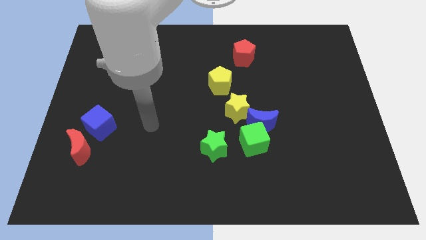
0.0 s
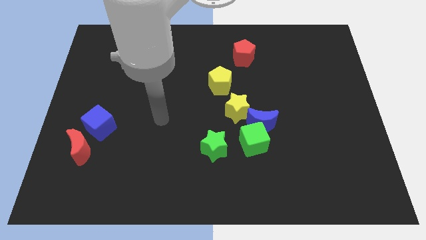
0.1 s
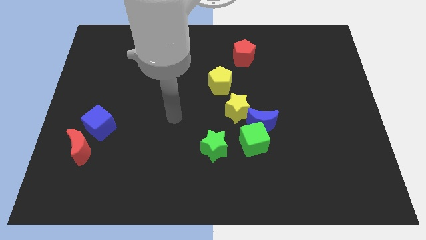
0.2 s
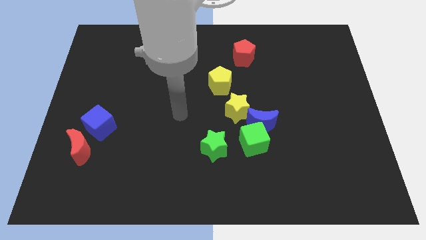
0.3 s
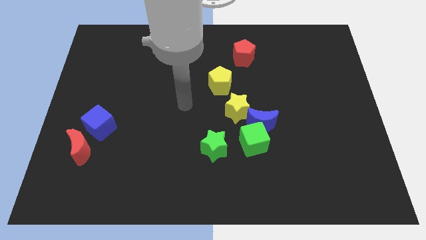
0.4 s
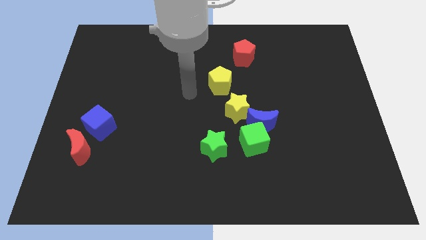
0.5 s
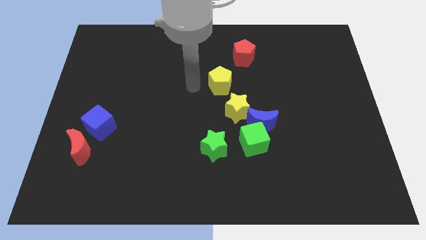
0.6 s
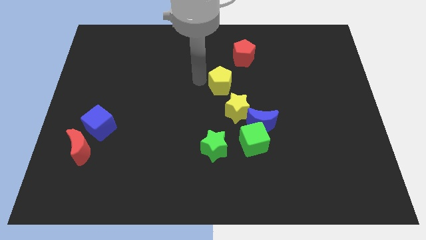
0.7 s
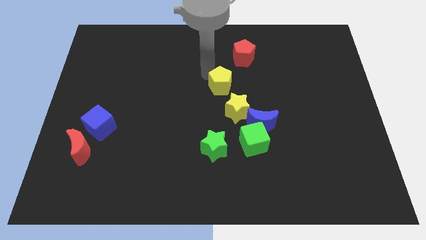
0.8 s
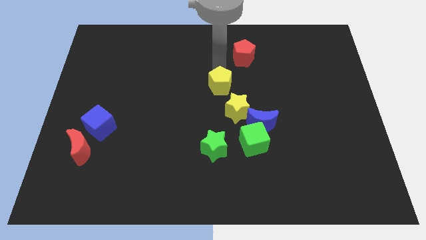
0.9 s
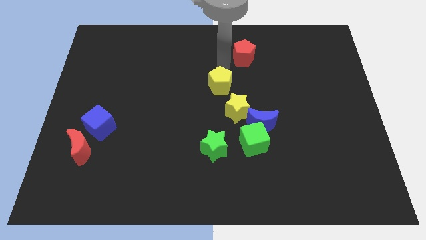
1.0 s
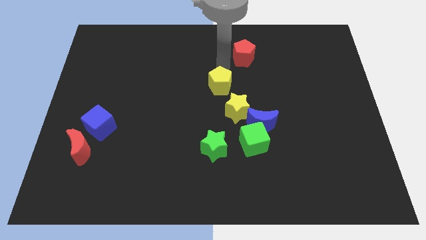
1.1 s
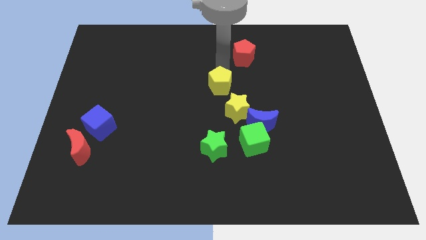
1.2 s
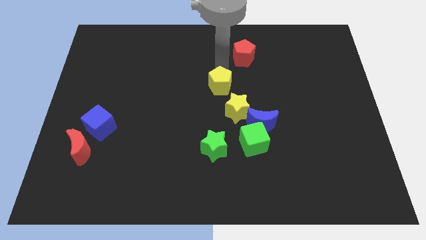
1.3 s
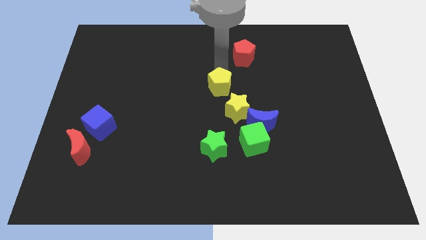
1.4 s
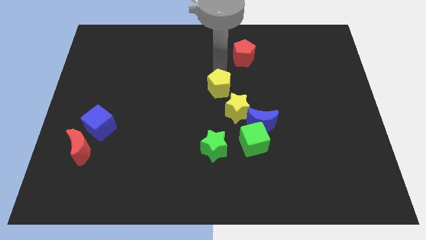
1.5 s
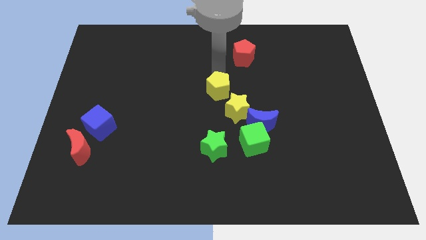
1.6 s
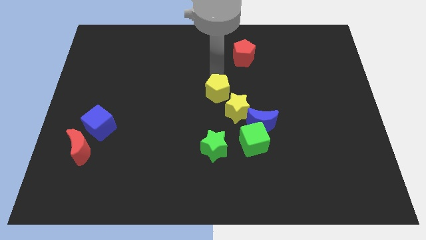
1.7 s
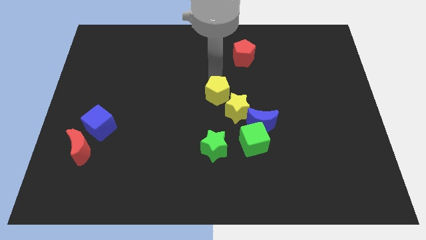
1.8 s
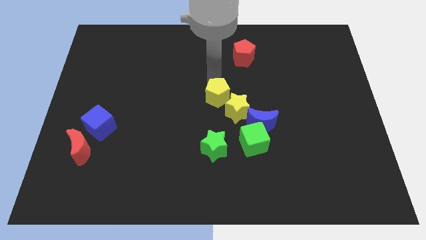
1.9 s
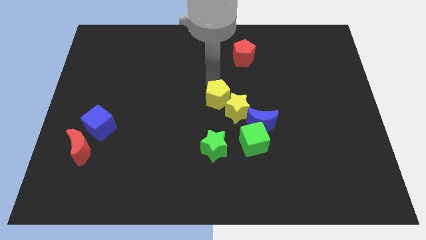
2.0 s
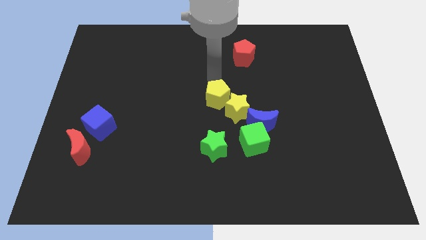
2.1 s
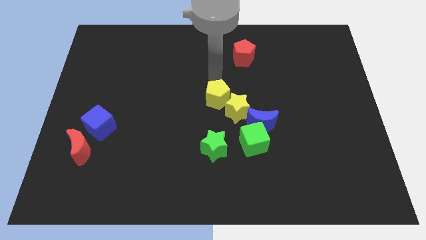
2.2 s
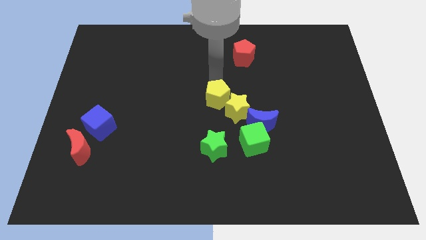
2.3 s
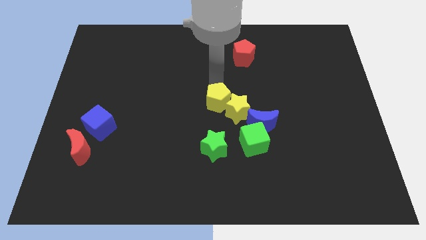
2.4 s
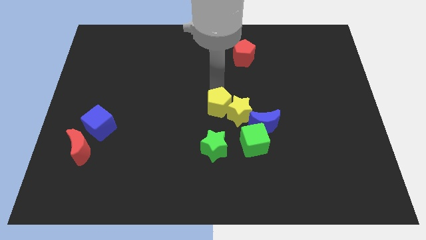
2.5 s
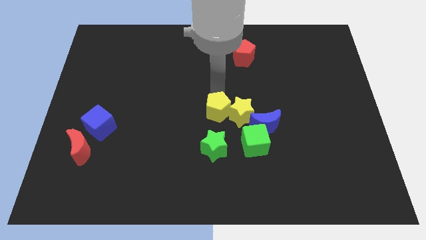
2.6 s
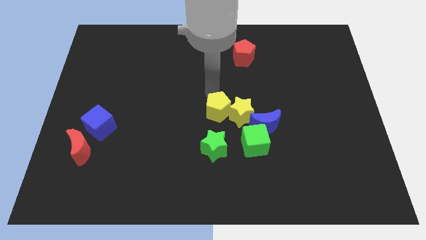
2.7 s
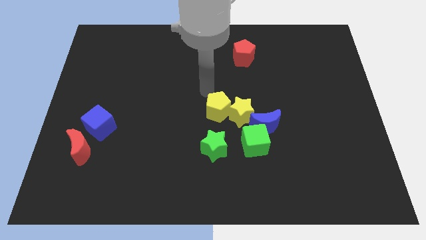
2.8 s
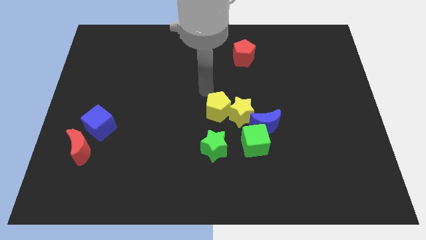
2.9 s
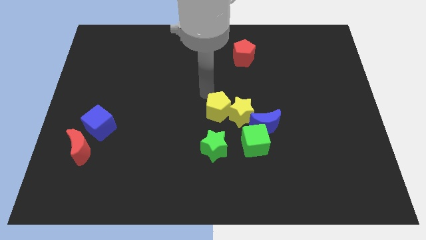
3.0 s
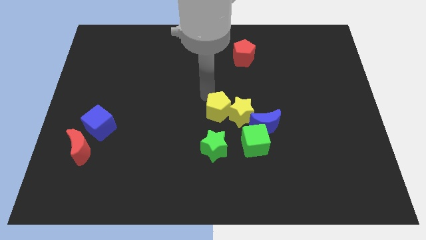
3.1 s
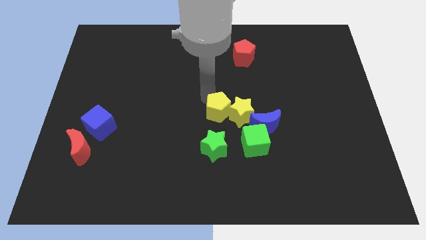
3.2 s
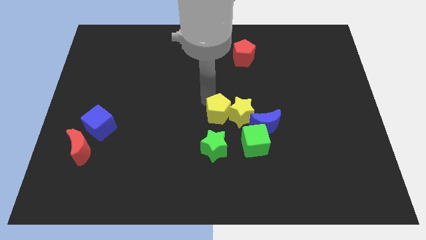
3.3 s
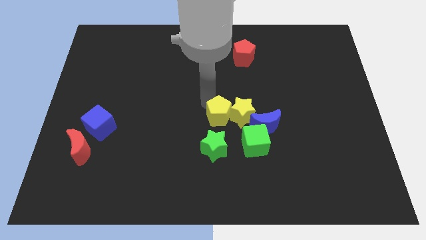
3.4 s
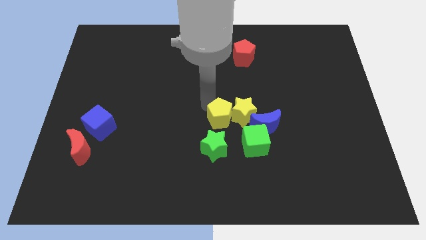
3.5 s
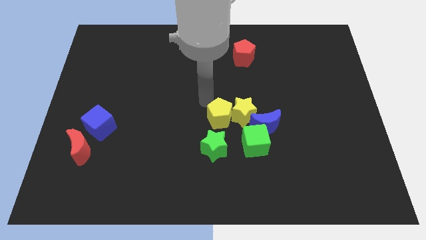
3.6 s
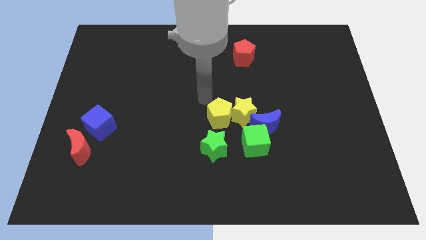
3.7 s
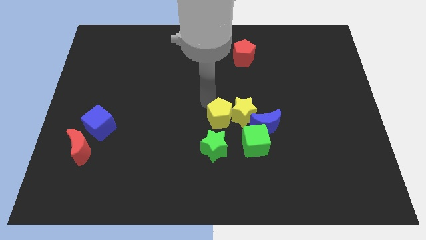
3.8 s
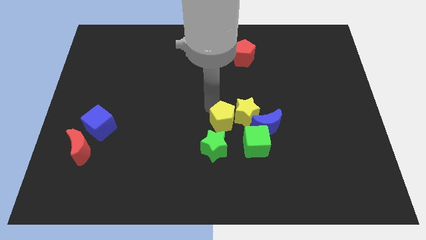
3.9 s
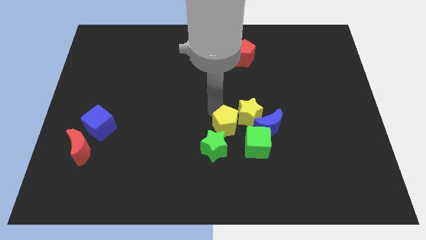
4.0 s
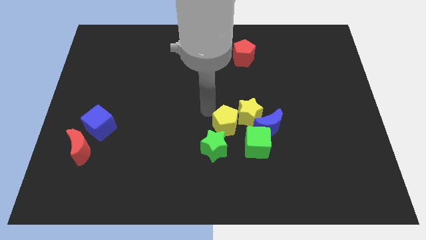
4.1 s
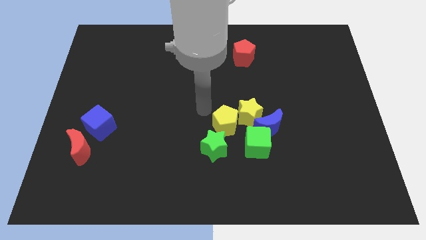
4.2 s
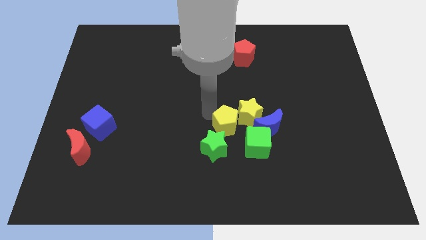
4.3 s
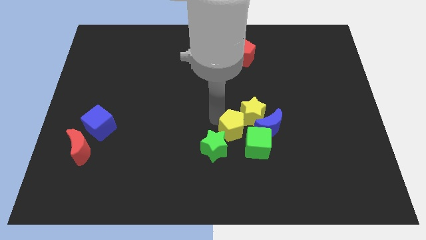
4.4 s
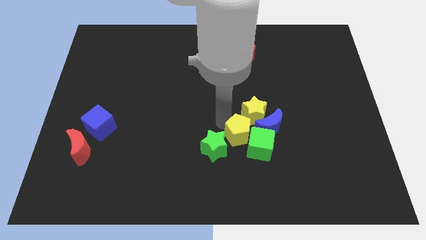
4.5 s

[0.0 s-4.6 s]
put the yellow pentagon close to the green cube

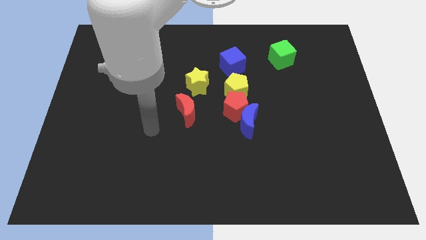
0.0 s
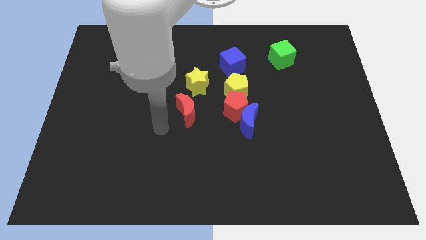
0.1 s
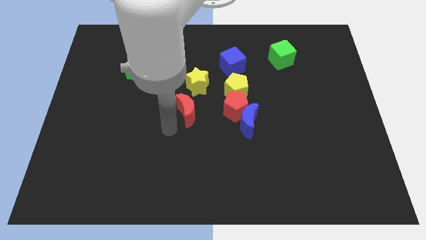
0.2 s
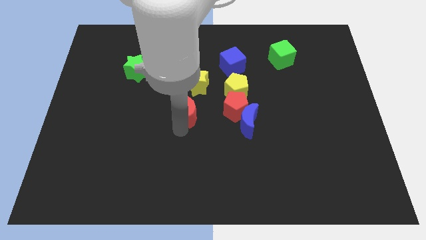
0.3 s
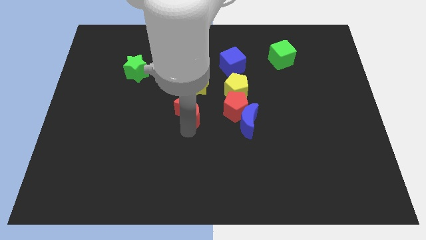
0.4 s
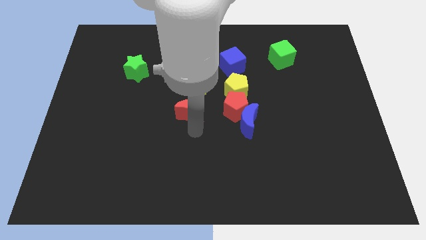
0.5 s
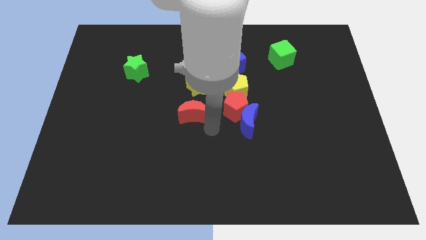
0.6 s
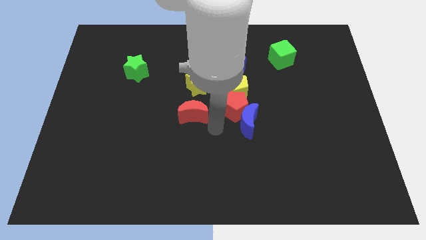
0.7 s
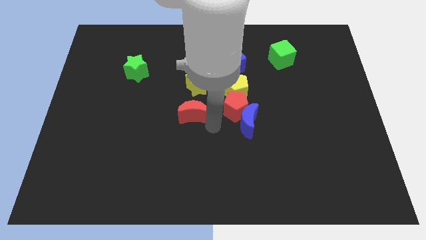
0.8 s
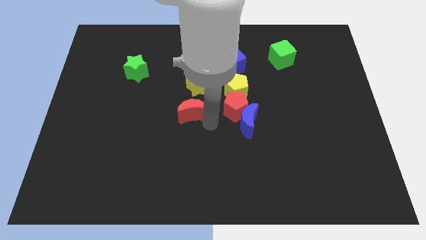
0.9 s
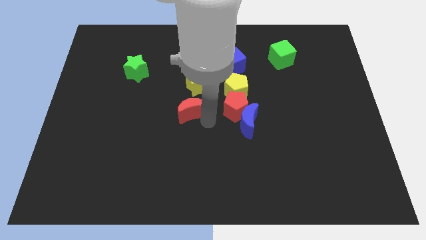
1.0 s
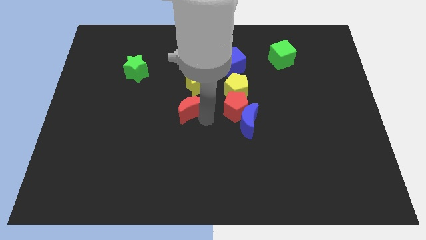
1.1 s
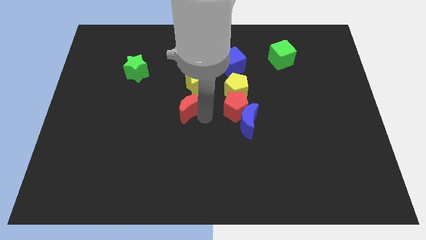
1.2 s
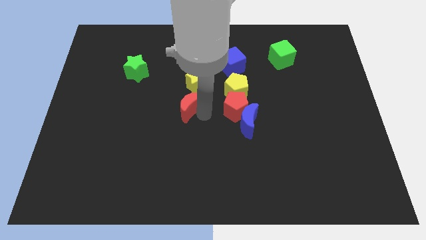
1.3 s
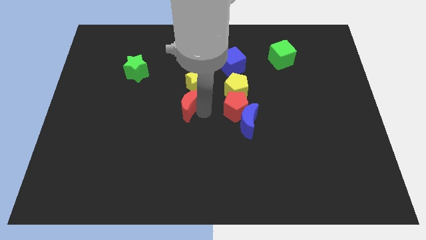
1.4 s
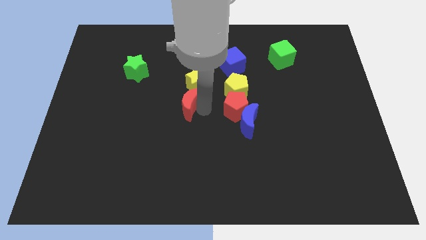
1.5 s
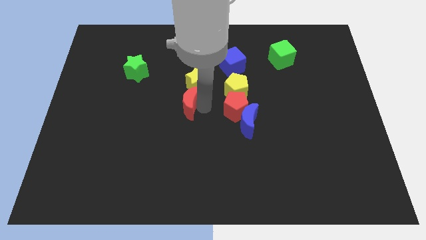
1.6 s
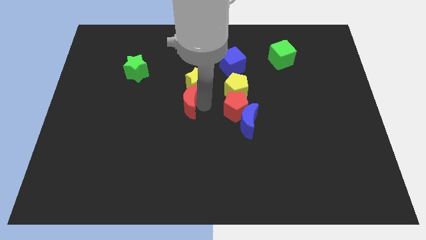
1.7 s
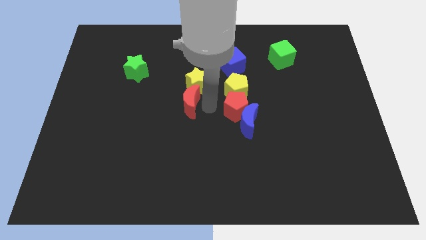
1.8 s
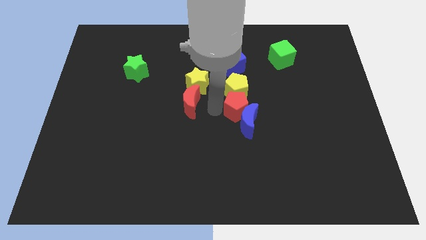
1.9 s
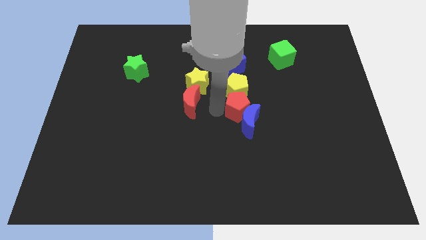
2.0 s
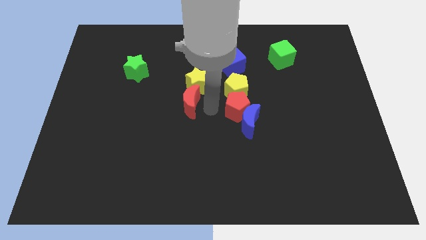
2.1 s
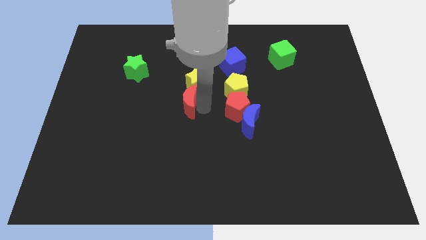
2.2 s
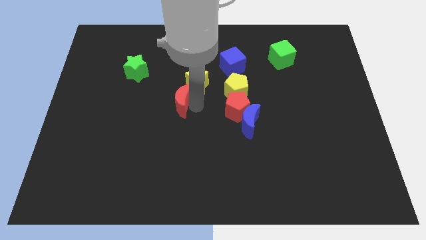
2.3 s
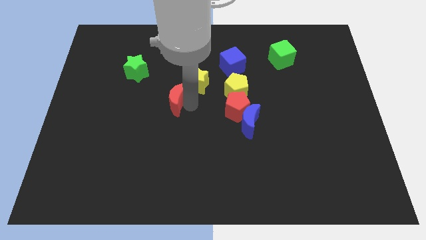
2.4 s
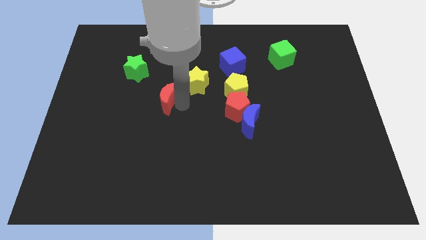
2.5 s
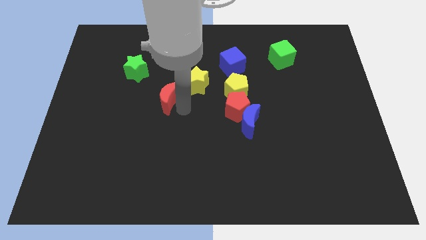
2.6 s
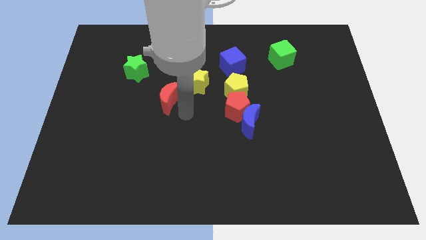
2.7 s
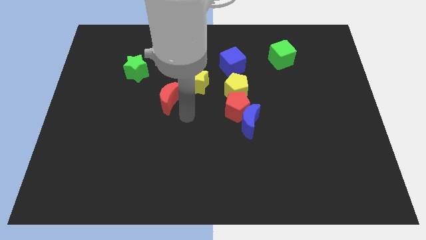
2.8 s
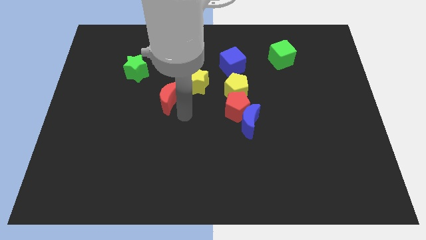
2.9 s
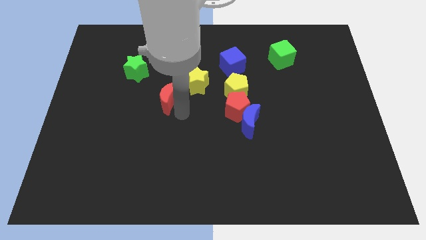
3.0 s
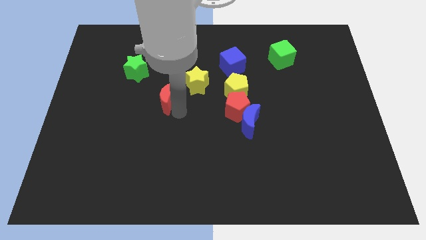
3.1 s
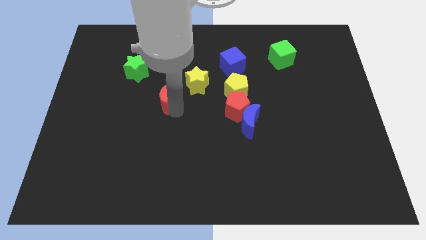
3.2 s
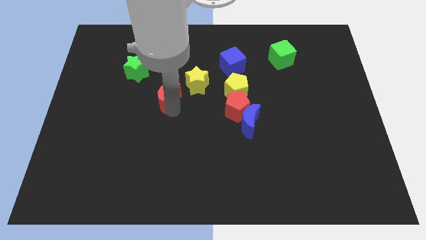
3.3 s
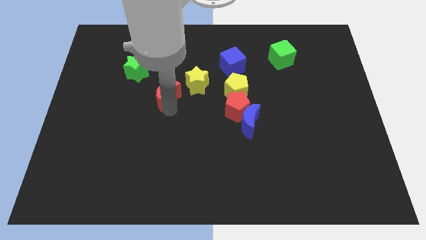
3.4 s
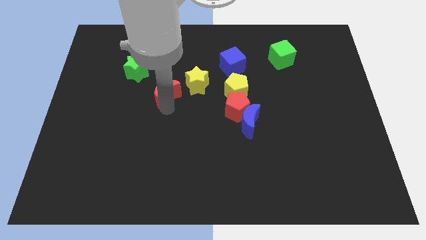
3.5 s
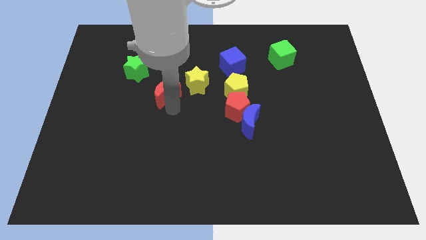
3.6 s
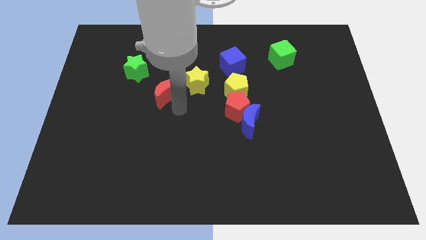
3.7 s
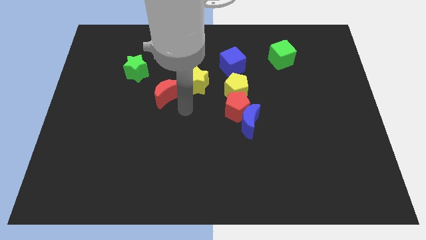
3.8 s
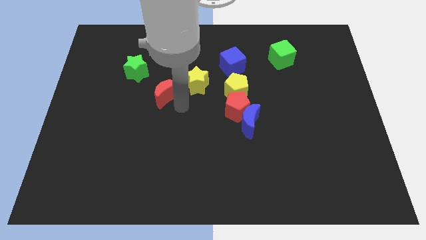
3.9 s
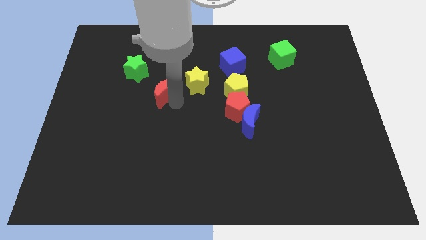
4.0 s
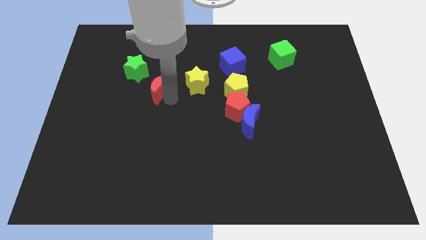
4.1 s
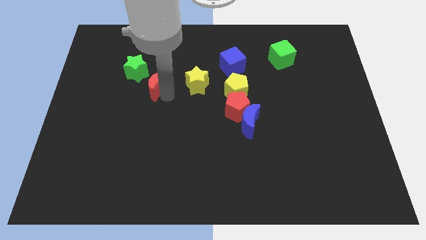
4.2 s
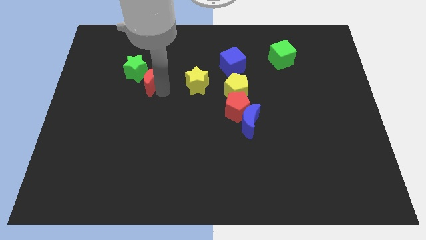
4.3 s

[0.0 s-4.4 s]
move the red moon to the green star
